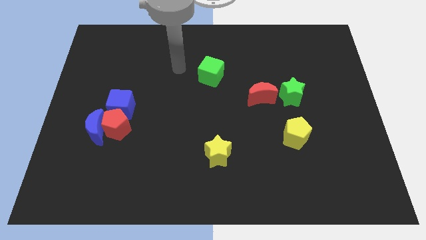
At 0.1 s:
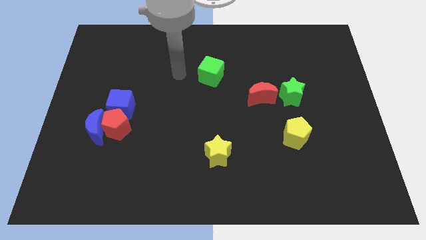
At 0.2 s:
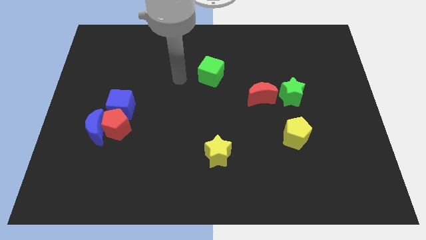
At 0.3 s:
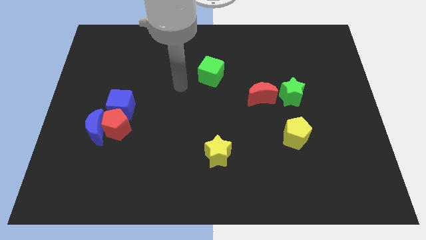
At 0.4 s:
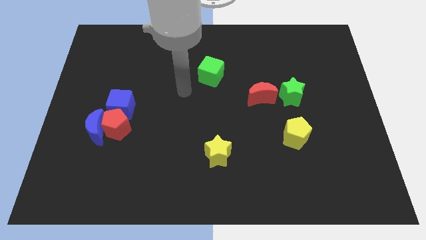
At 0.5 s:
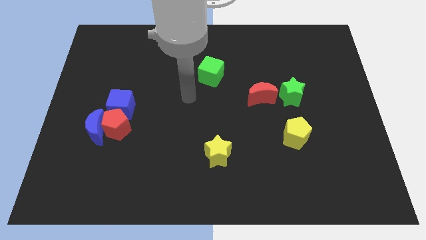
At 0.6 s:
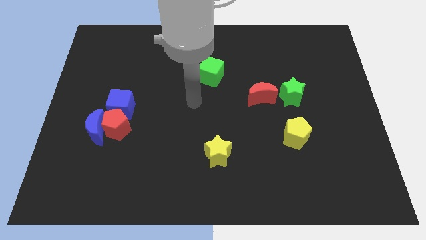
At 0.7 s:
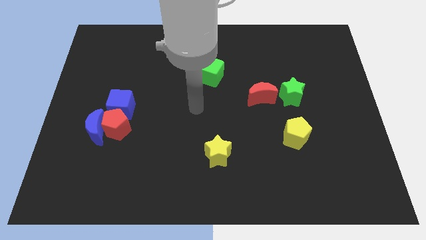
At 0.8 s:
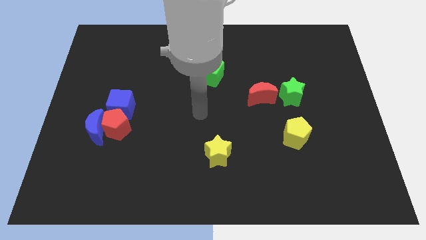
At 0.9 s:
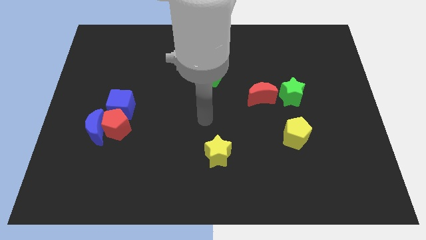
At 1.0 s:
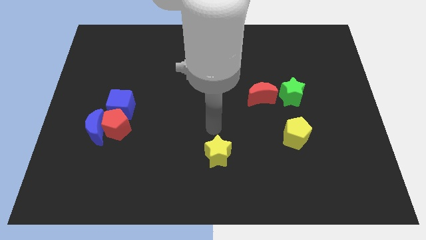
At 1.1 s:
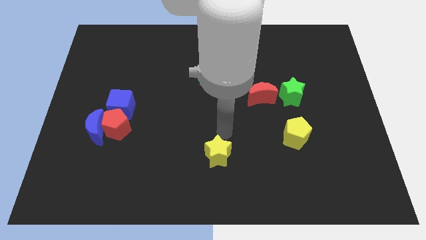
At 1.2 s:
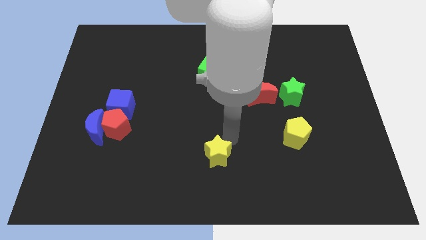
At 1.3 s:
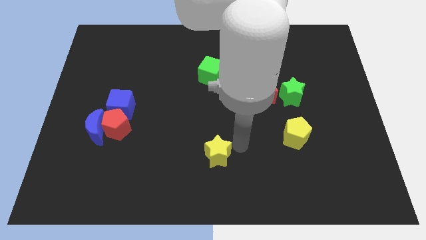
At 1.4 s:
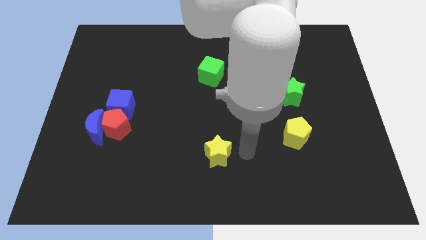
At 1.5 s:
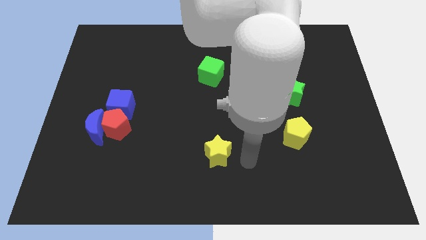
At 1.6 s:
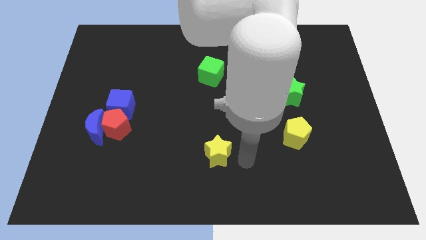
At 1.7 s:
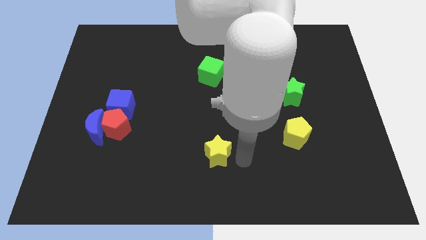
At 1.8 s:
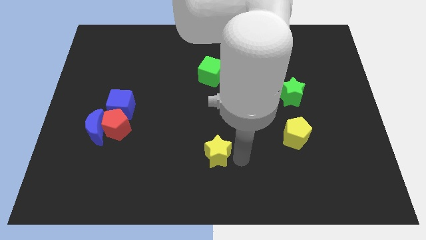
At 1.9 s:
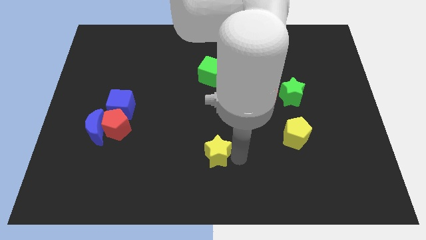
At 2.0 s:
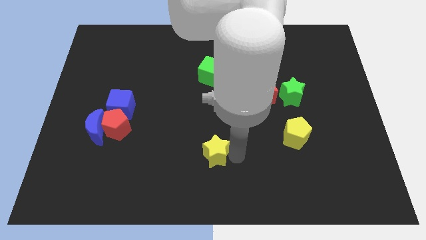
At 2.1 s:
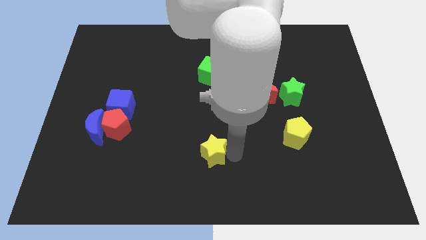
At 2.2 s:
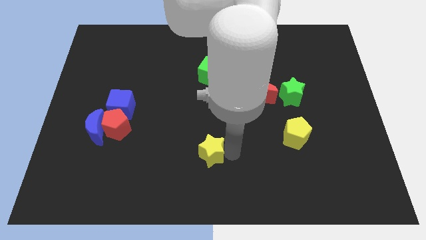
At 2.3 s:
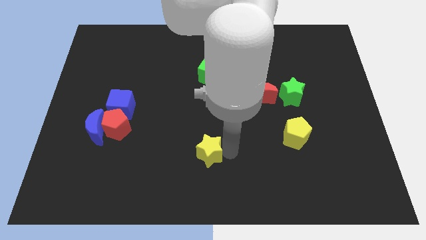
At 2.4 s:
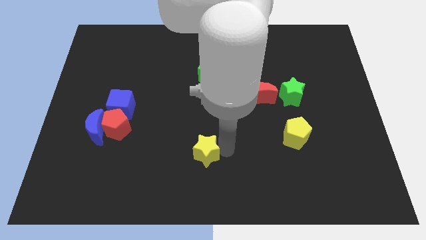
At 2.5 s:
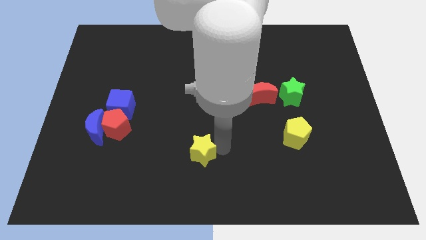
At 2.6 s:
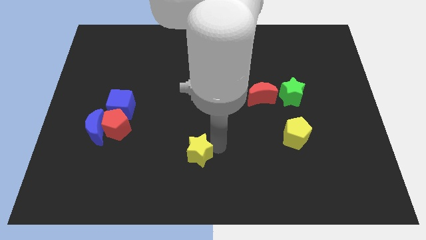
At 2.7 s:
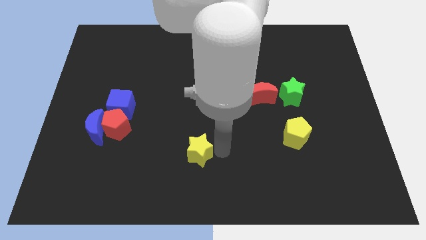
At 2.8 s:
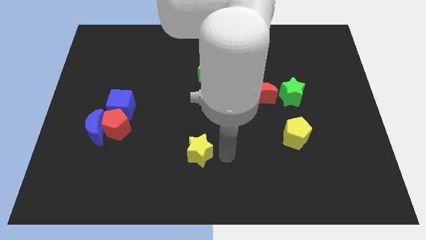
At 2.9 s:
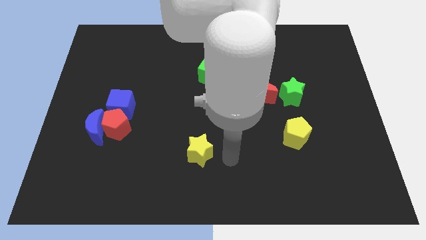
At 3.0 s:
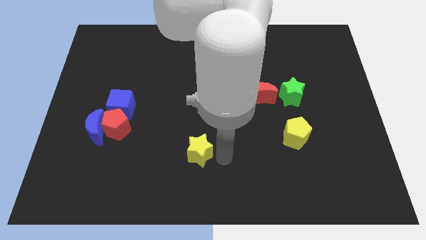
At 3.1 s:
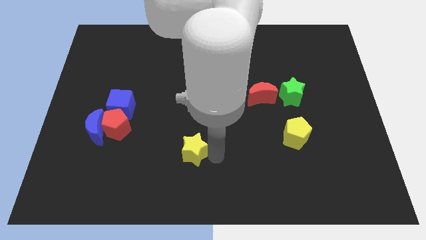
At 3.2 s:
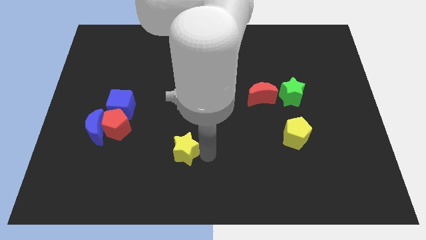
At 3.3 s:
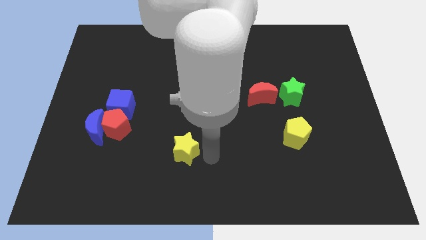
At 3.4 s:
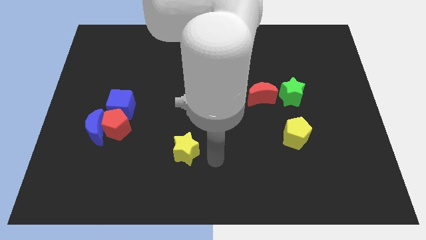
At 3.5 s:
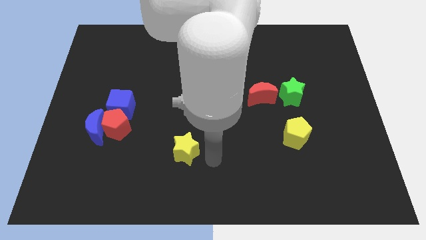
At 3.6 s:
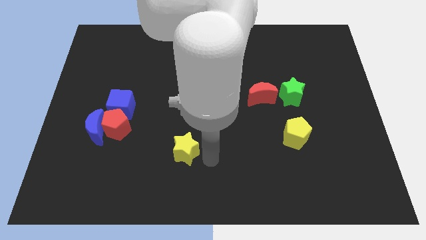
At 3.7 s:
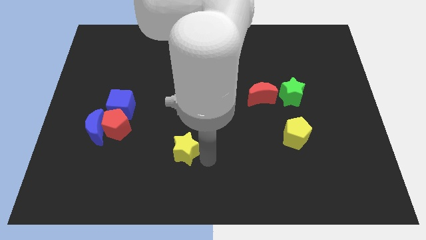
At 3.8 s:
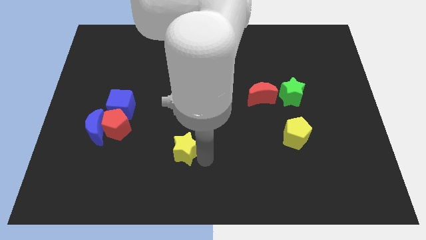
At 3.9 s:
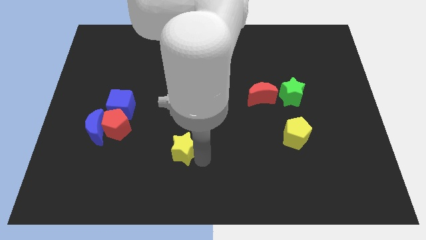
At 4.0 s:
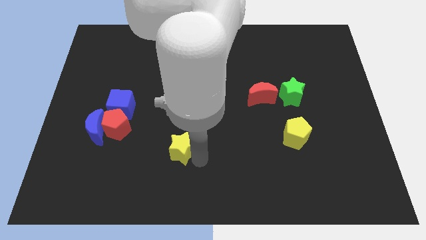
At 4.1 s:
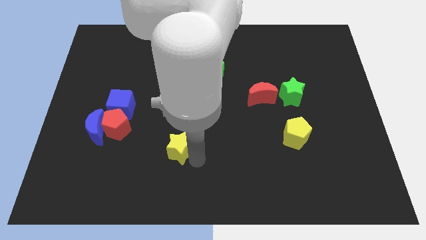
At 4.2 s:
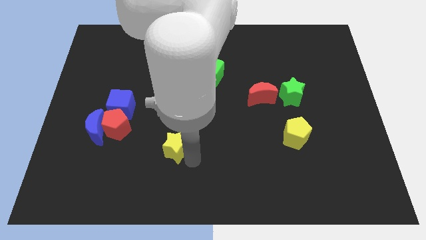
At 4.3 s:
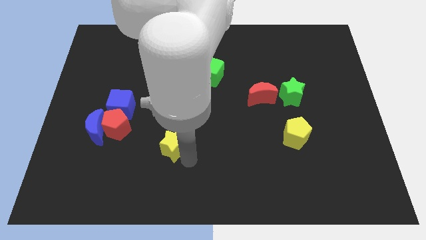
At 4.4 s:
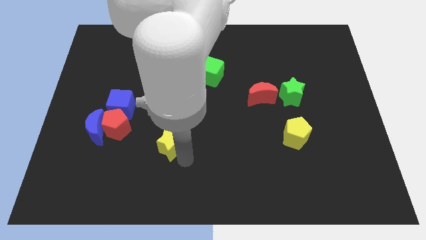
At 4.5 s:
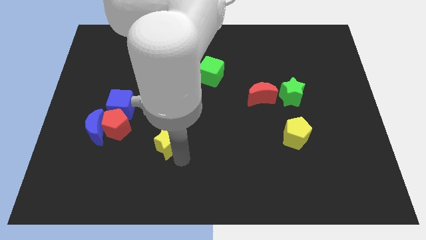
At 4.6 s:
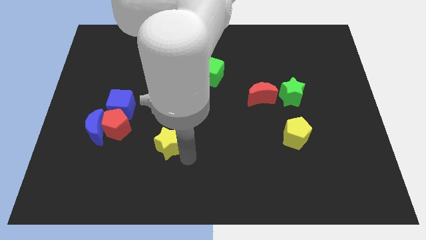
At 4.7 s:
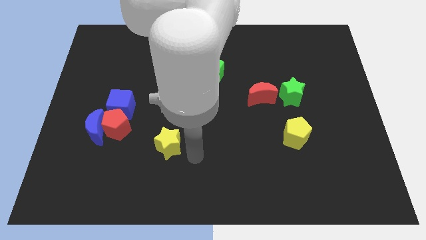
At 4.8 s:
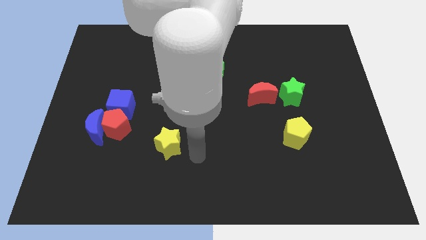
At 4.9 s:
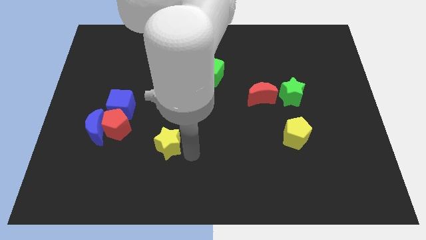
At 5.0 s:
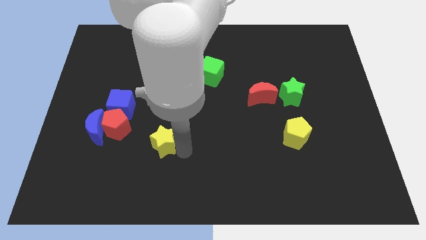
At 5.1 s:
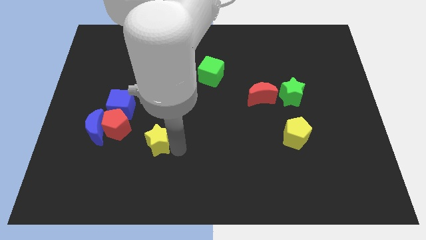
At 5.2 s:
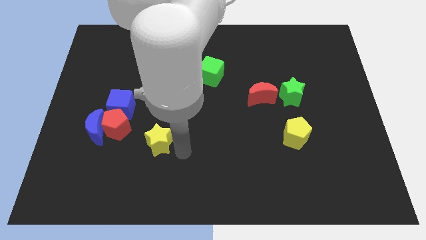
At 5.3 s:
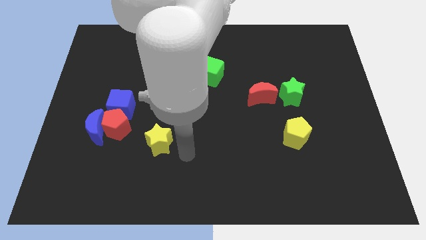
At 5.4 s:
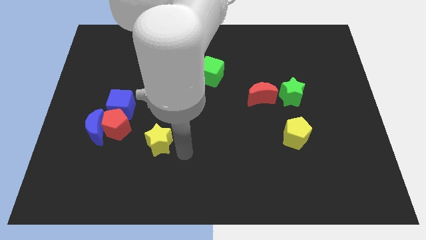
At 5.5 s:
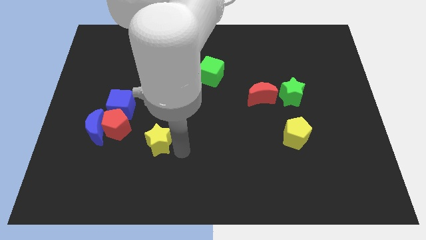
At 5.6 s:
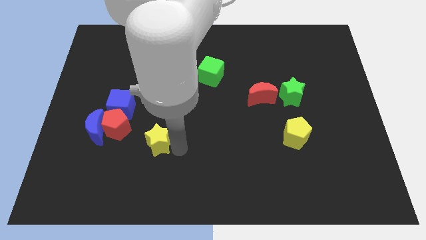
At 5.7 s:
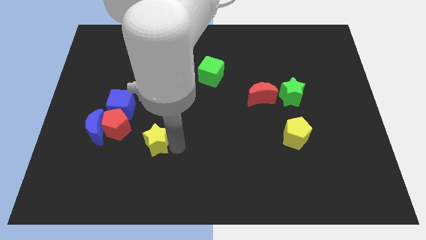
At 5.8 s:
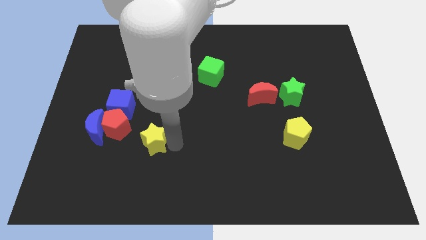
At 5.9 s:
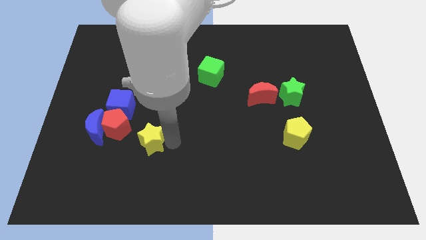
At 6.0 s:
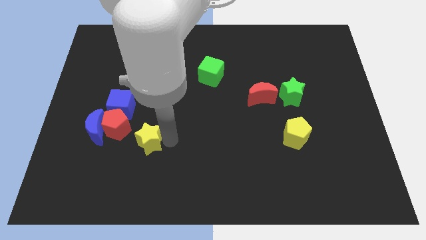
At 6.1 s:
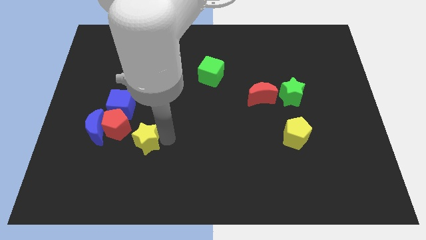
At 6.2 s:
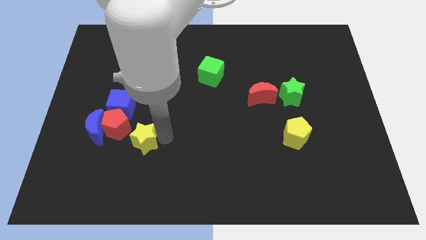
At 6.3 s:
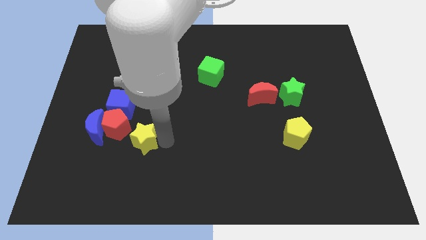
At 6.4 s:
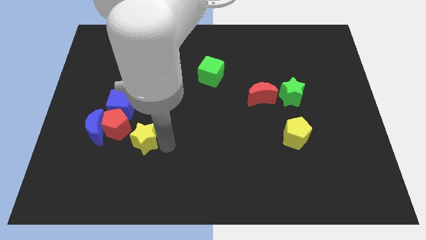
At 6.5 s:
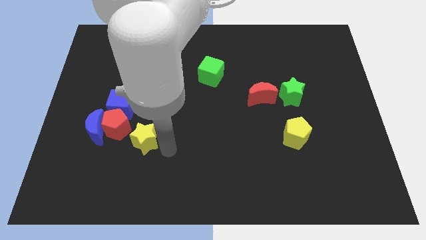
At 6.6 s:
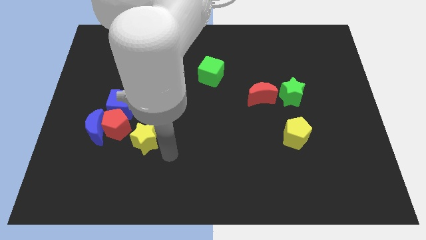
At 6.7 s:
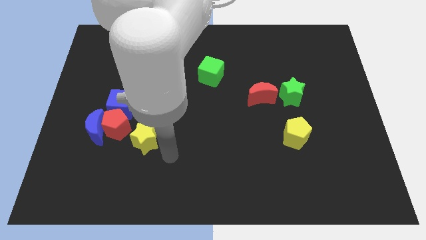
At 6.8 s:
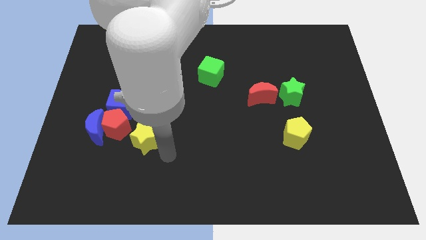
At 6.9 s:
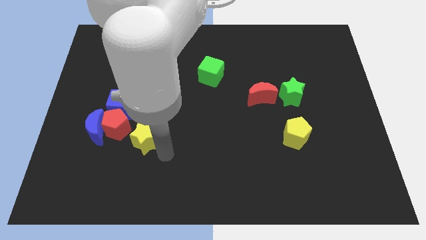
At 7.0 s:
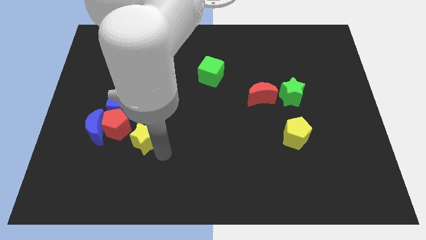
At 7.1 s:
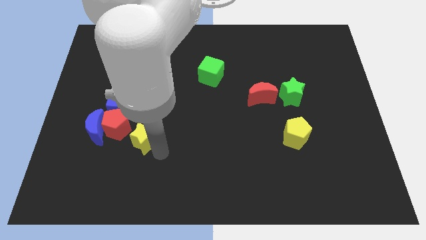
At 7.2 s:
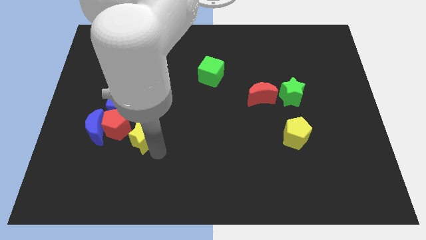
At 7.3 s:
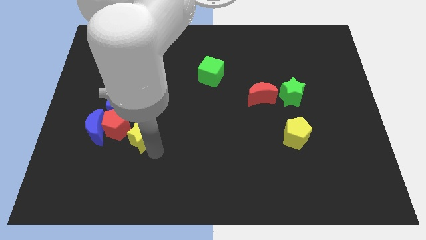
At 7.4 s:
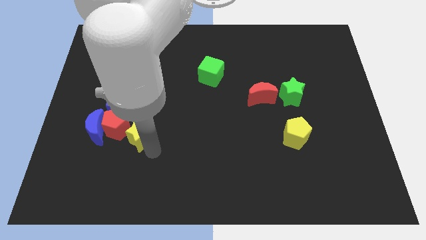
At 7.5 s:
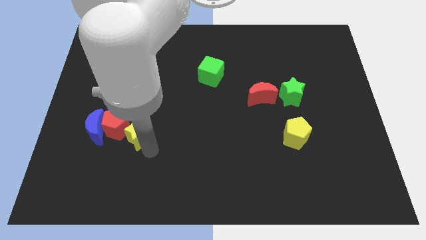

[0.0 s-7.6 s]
put the yellow star close to the red pentagon
